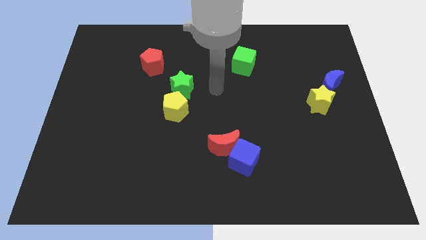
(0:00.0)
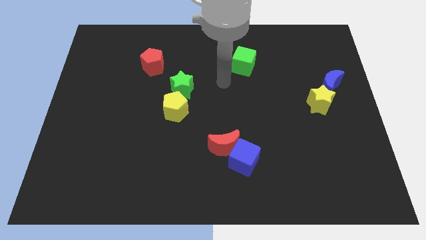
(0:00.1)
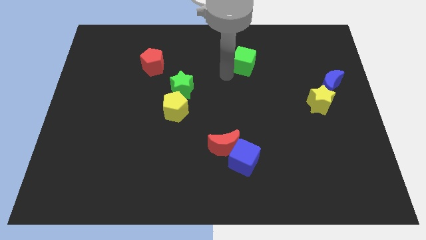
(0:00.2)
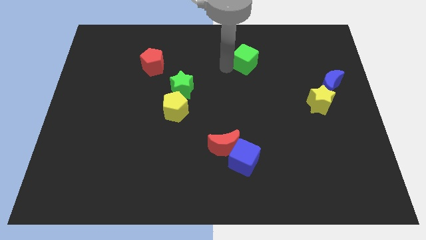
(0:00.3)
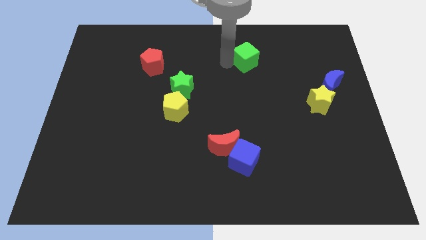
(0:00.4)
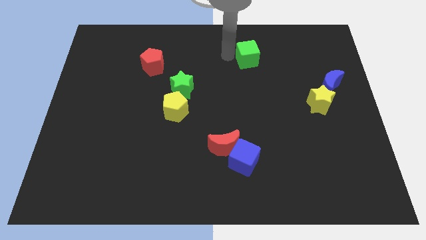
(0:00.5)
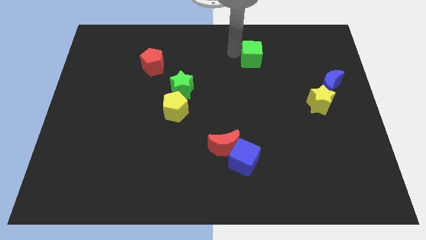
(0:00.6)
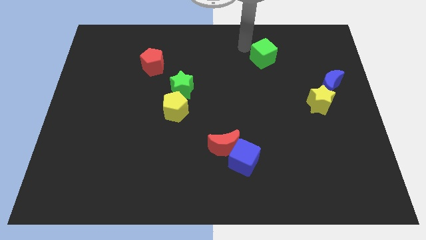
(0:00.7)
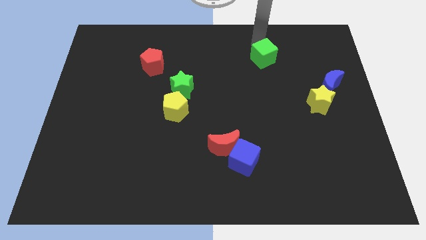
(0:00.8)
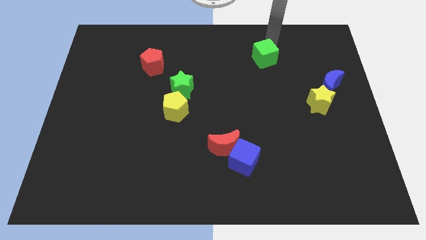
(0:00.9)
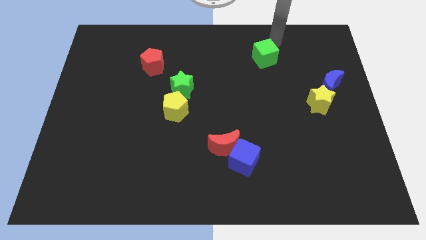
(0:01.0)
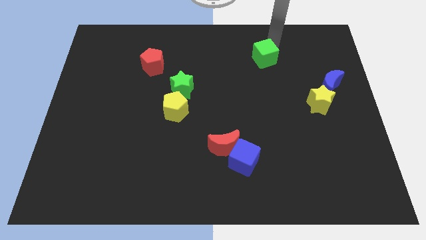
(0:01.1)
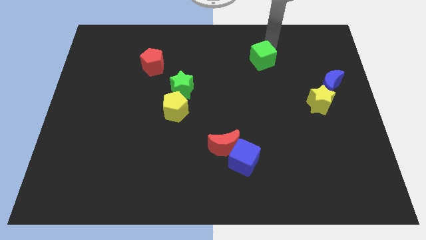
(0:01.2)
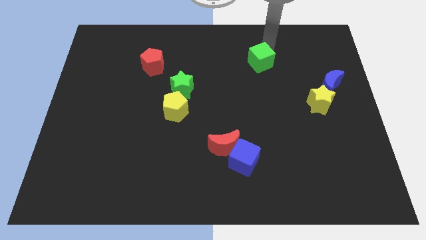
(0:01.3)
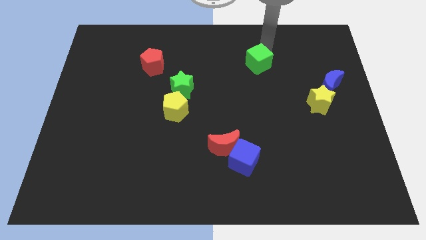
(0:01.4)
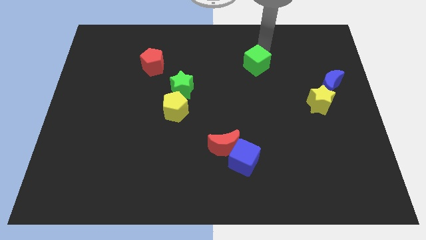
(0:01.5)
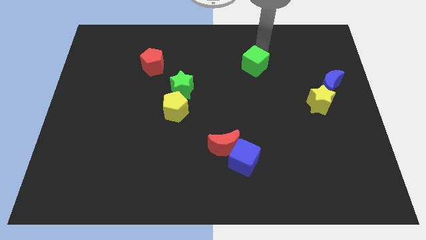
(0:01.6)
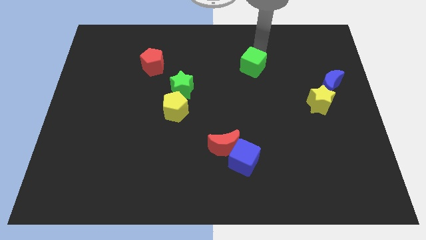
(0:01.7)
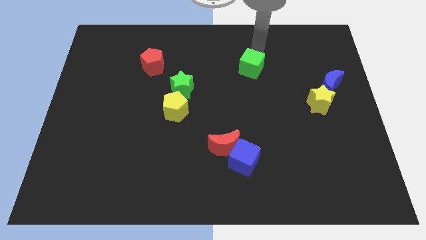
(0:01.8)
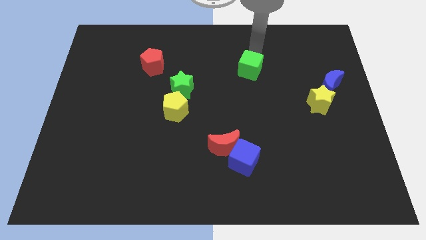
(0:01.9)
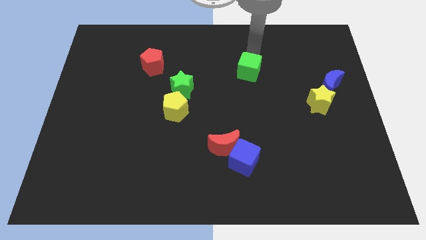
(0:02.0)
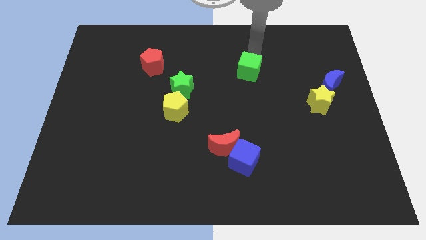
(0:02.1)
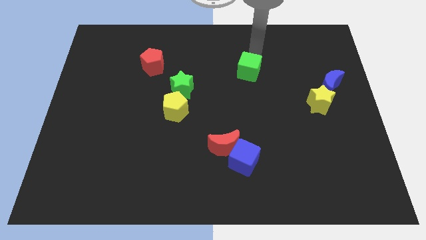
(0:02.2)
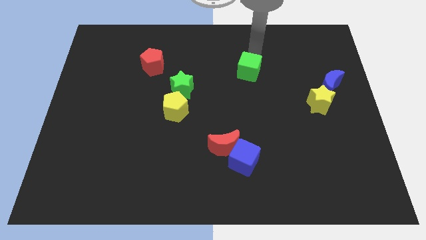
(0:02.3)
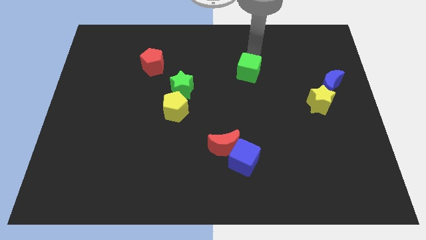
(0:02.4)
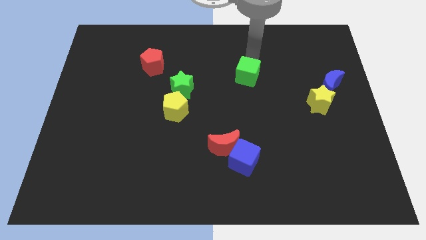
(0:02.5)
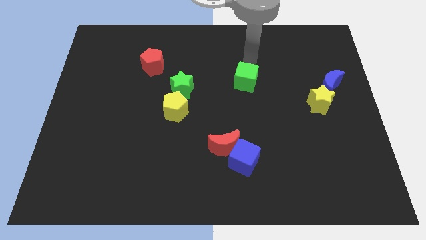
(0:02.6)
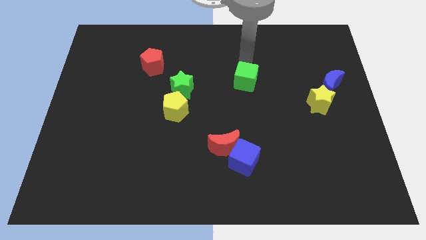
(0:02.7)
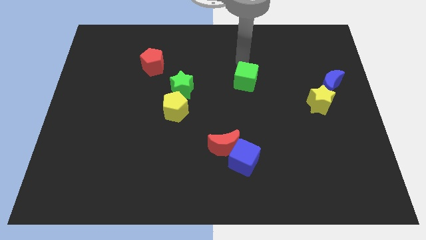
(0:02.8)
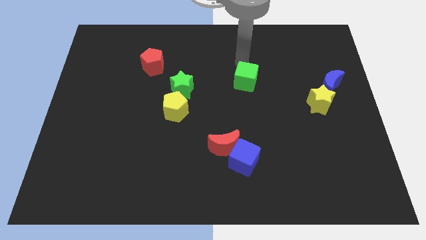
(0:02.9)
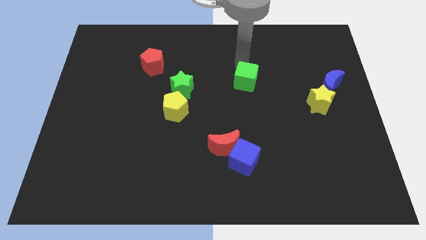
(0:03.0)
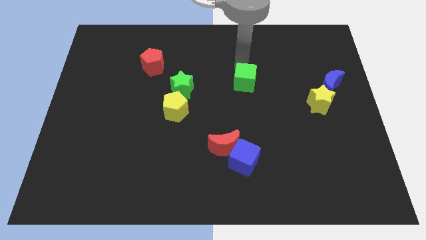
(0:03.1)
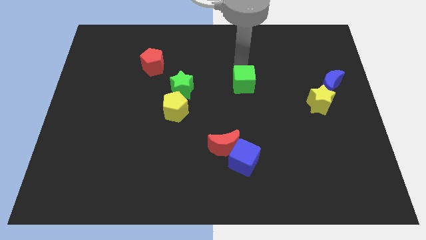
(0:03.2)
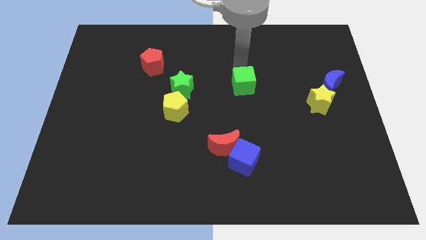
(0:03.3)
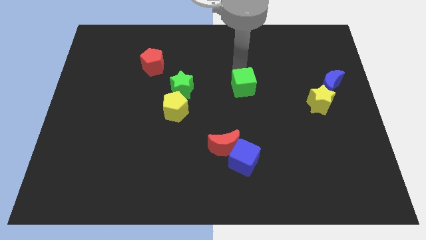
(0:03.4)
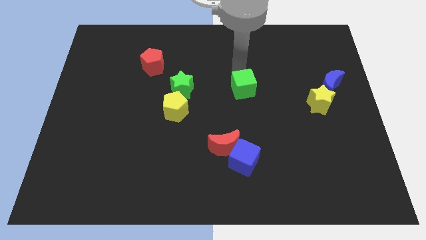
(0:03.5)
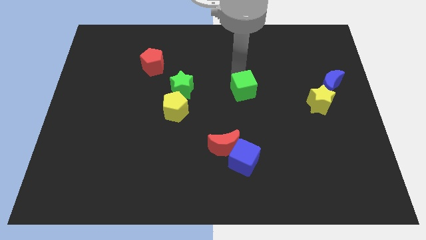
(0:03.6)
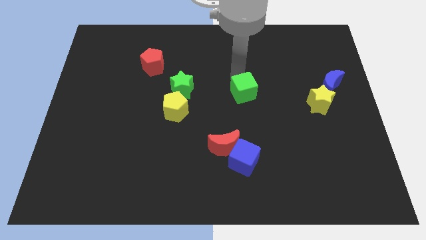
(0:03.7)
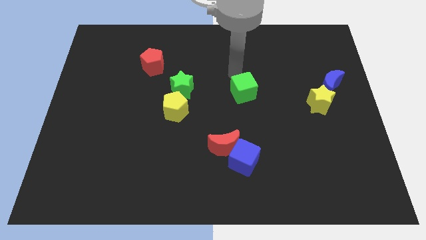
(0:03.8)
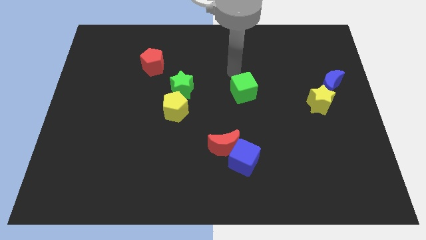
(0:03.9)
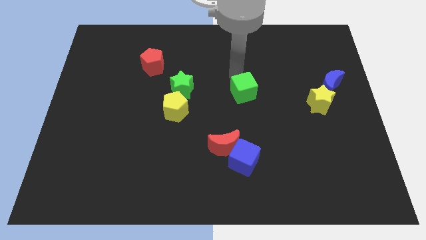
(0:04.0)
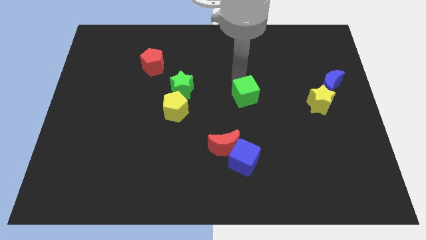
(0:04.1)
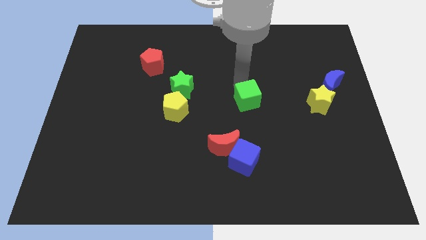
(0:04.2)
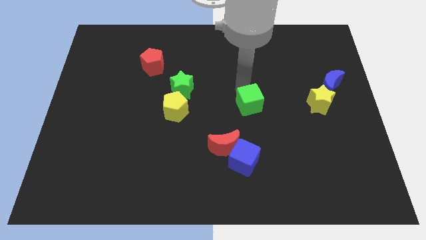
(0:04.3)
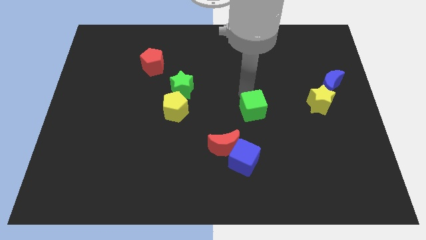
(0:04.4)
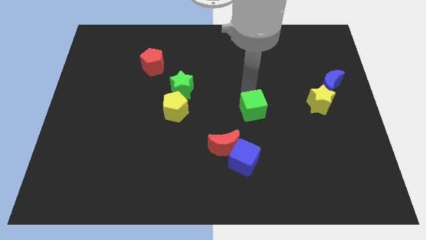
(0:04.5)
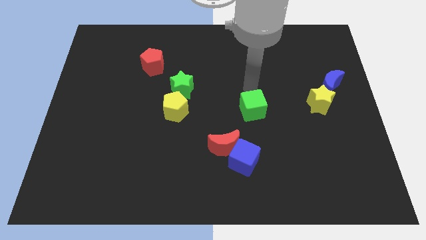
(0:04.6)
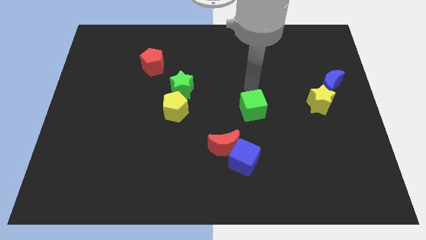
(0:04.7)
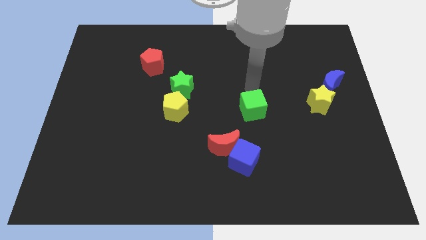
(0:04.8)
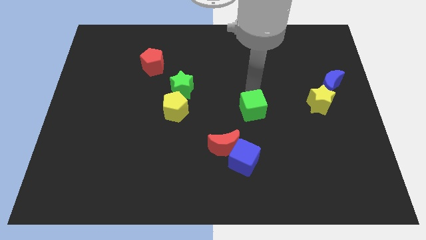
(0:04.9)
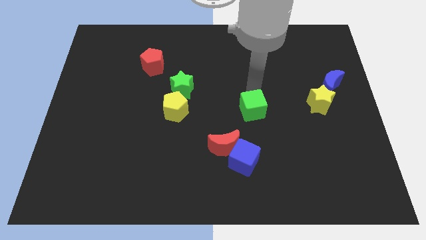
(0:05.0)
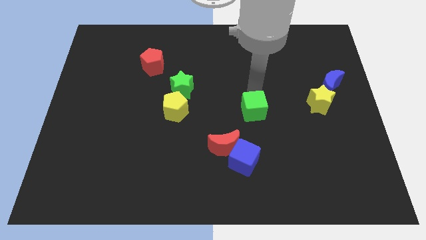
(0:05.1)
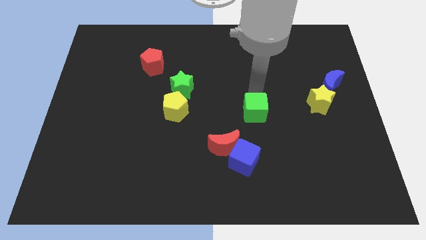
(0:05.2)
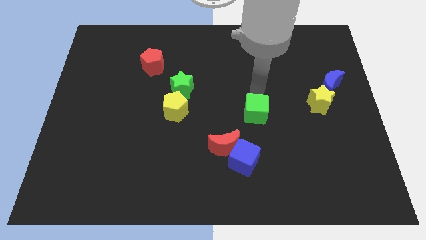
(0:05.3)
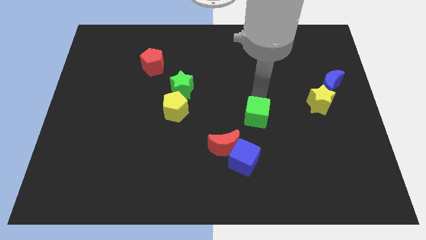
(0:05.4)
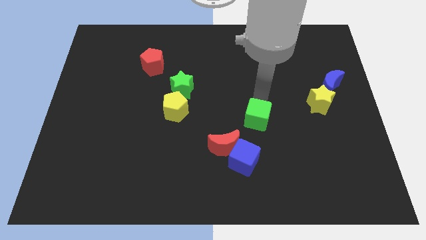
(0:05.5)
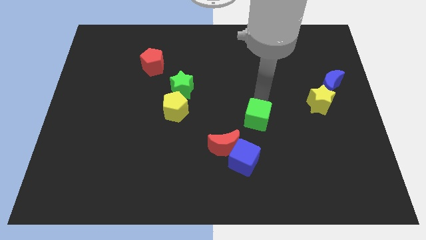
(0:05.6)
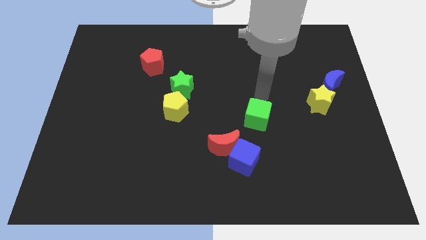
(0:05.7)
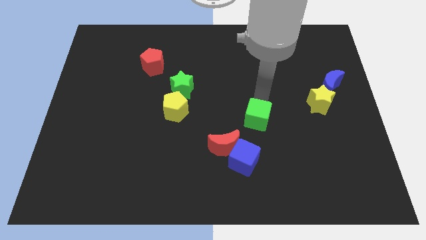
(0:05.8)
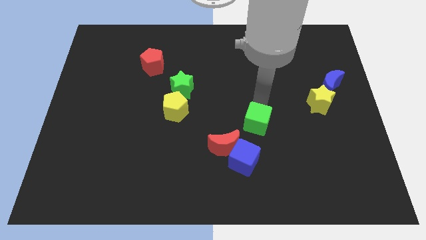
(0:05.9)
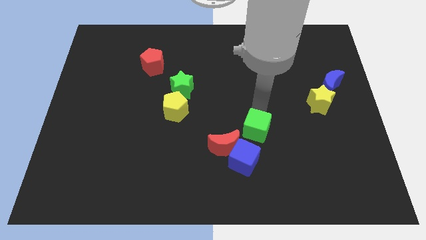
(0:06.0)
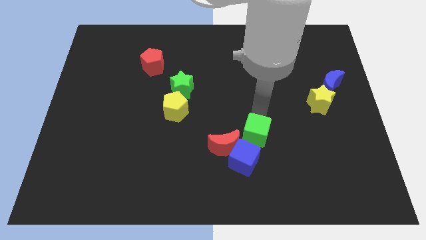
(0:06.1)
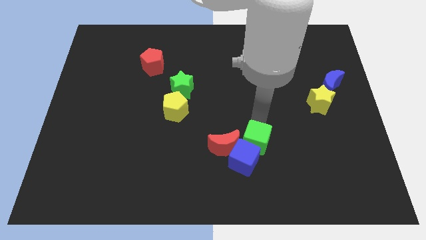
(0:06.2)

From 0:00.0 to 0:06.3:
slide the green cube next to the blue cube

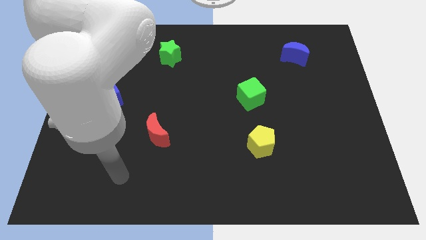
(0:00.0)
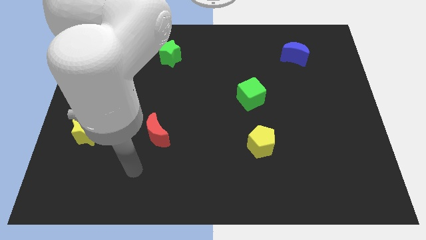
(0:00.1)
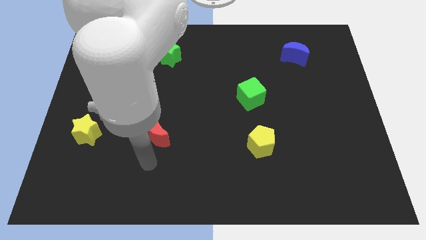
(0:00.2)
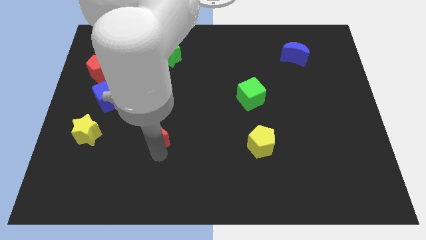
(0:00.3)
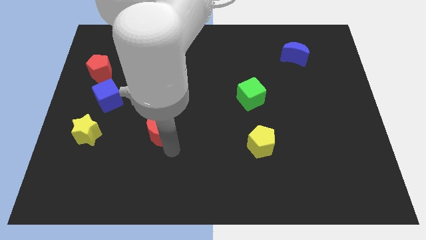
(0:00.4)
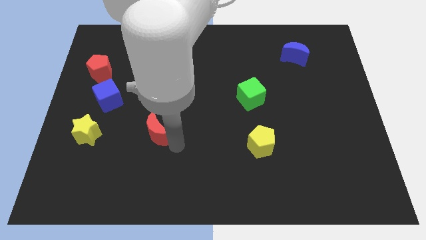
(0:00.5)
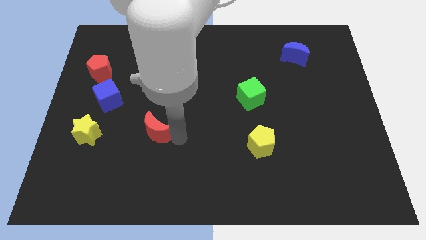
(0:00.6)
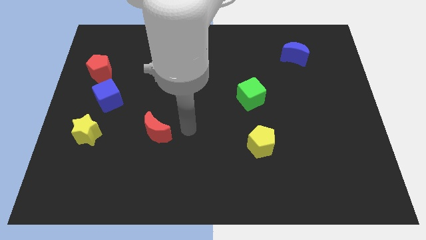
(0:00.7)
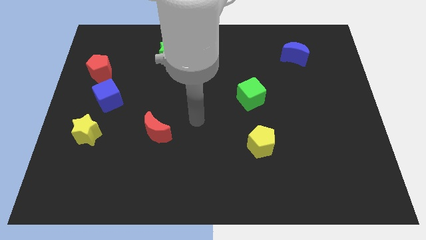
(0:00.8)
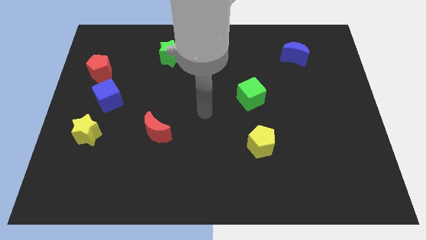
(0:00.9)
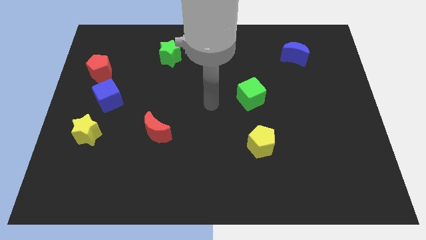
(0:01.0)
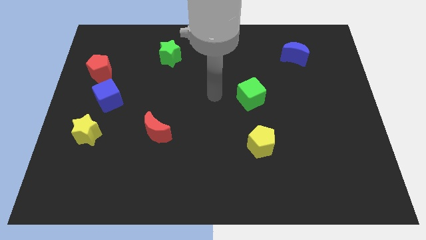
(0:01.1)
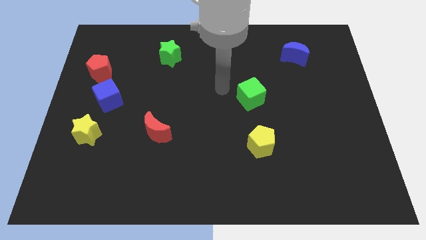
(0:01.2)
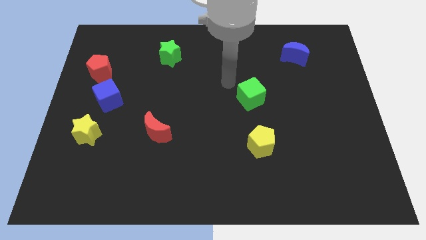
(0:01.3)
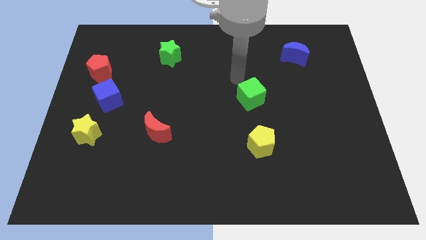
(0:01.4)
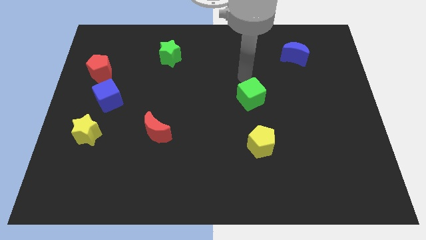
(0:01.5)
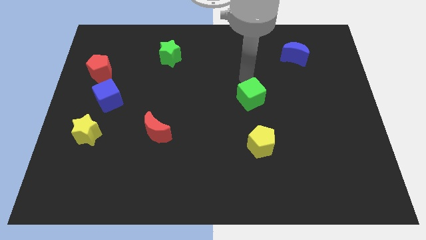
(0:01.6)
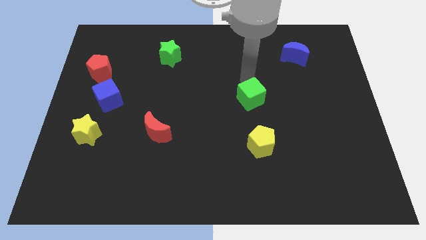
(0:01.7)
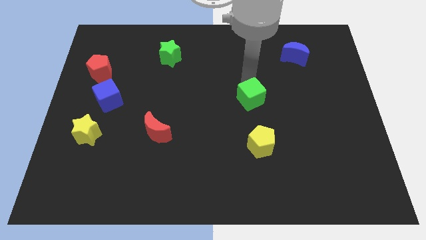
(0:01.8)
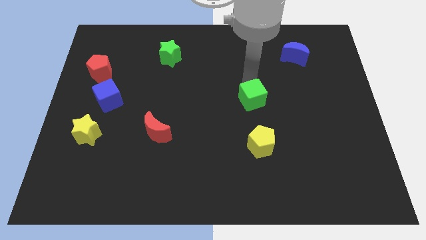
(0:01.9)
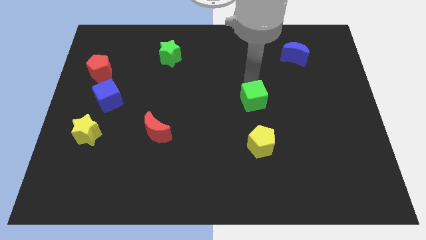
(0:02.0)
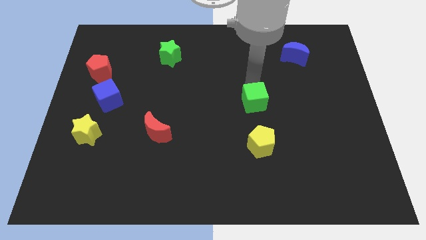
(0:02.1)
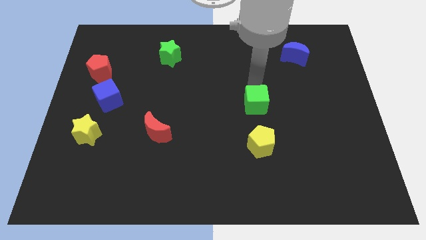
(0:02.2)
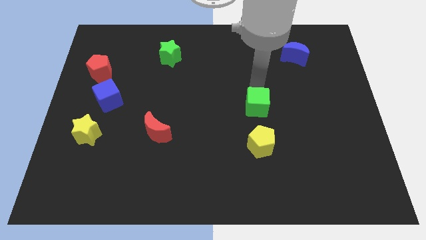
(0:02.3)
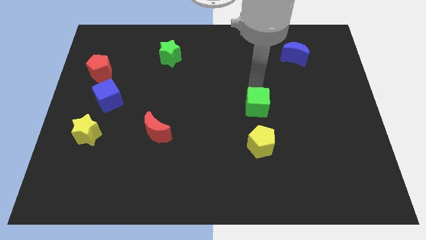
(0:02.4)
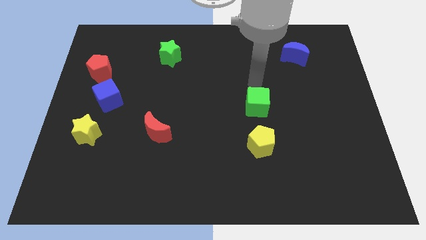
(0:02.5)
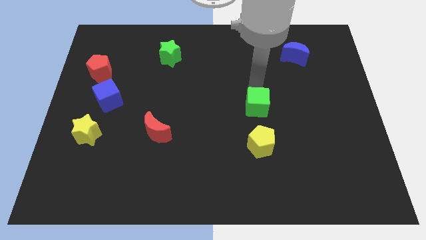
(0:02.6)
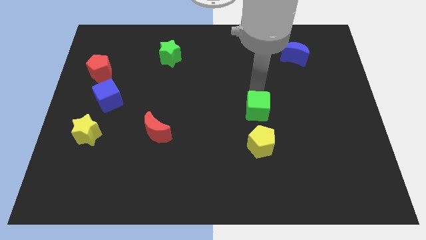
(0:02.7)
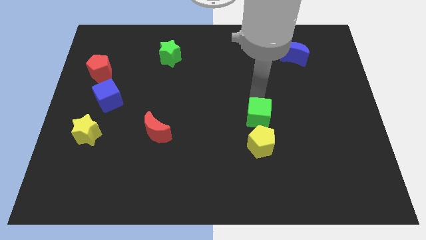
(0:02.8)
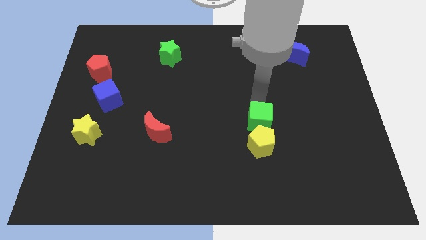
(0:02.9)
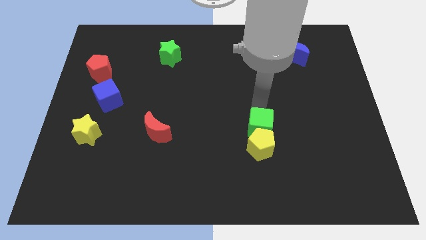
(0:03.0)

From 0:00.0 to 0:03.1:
move the green cube to the yellow pentagon
